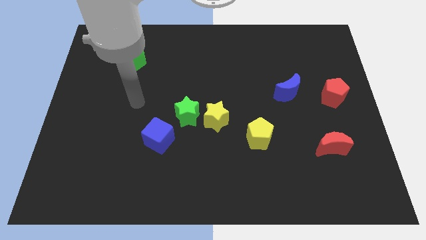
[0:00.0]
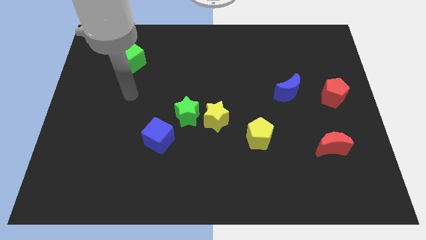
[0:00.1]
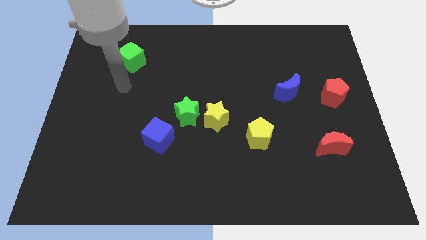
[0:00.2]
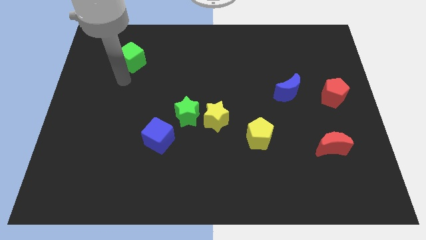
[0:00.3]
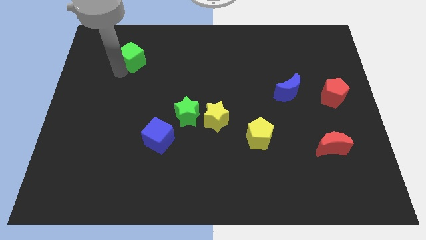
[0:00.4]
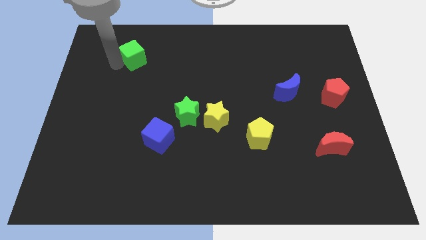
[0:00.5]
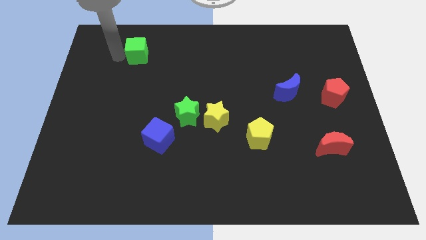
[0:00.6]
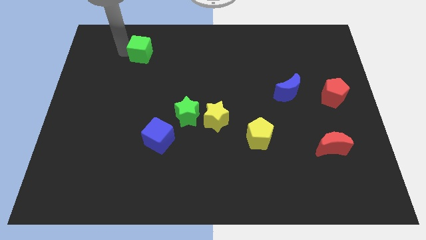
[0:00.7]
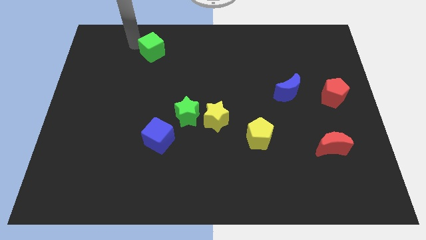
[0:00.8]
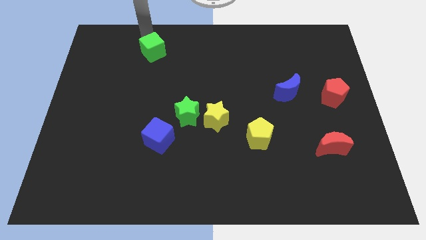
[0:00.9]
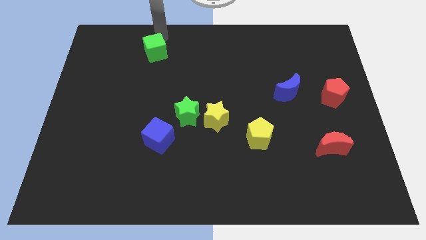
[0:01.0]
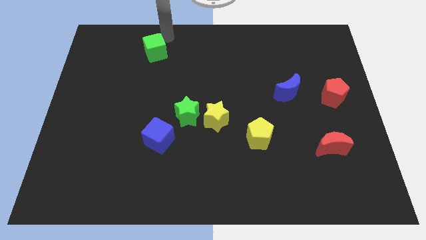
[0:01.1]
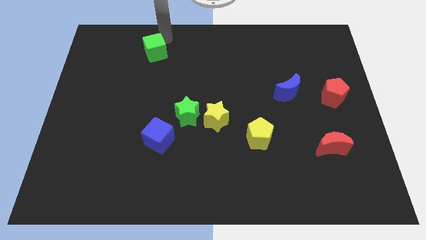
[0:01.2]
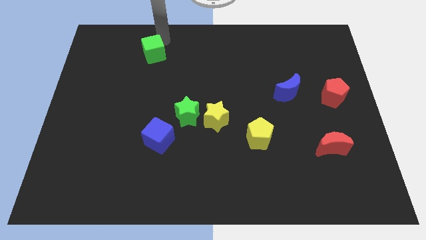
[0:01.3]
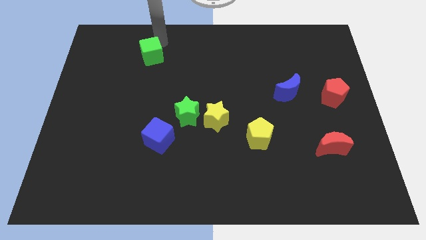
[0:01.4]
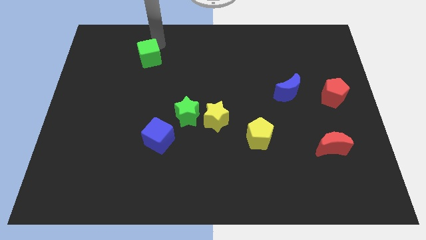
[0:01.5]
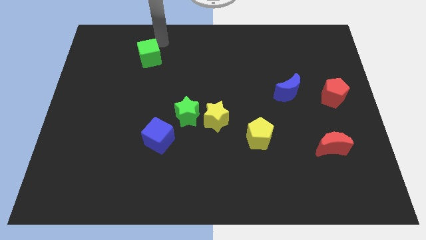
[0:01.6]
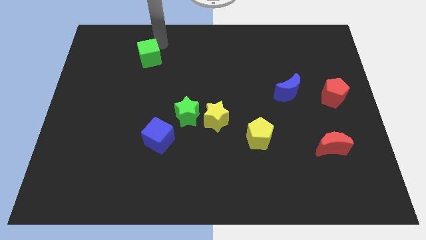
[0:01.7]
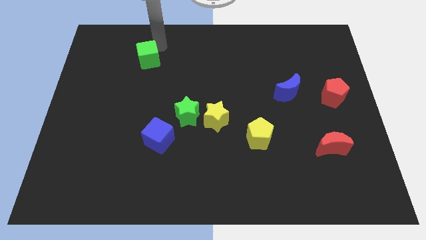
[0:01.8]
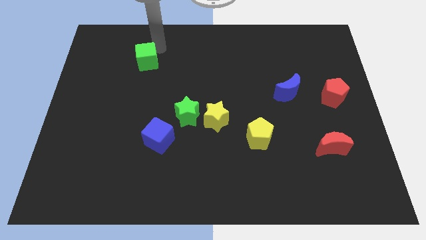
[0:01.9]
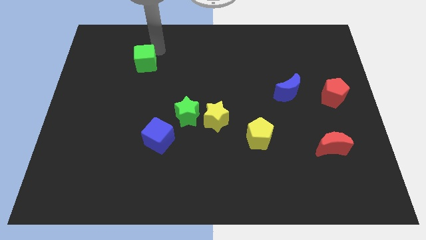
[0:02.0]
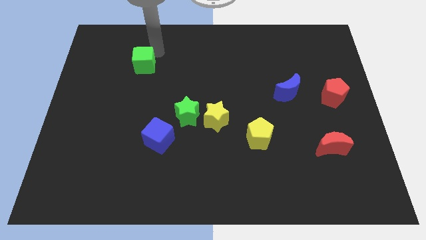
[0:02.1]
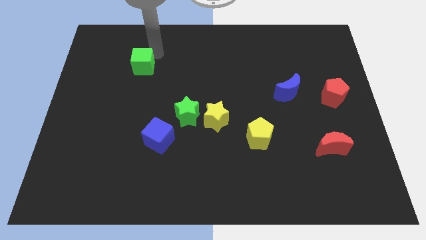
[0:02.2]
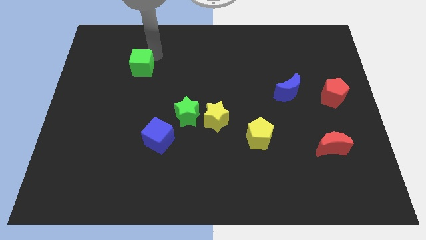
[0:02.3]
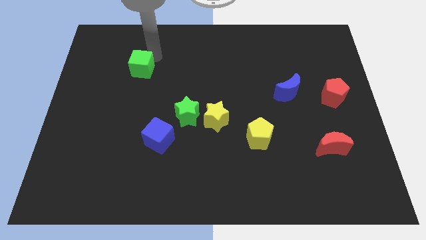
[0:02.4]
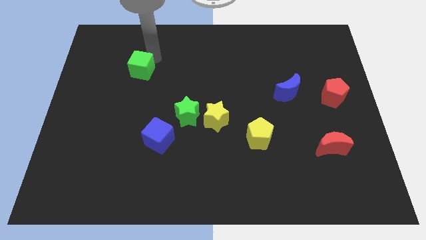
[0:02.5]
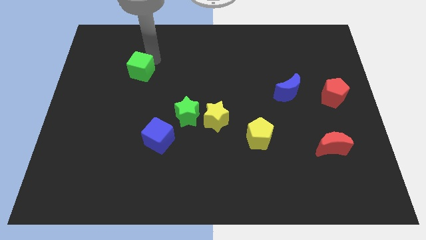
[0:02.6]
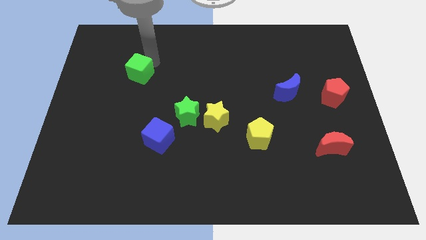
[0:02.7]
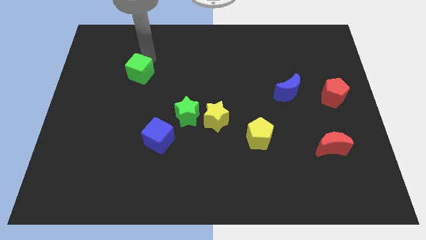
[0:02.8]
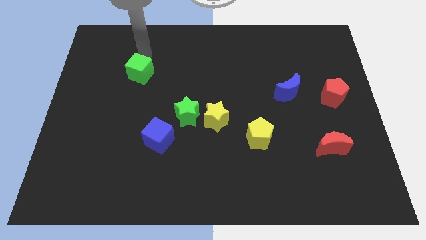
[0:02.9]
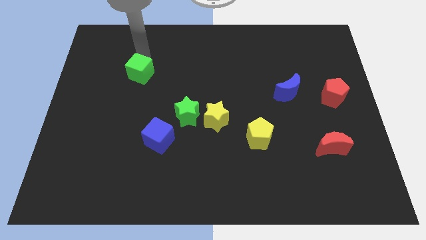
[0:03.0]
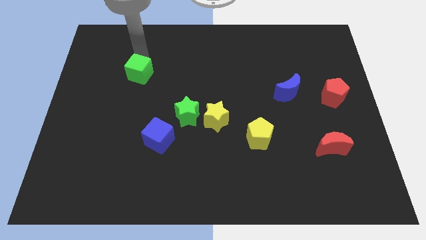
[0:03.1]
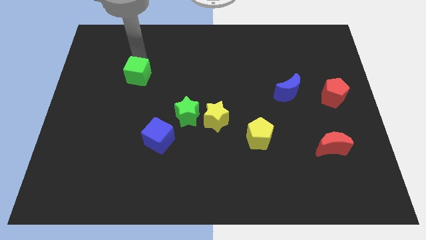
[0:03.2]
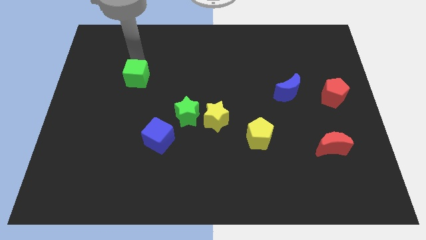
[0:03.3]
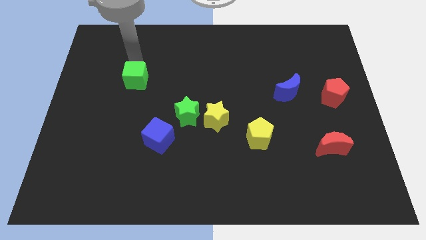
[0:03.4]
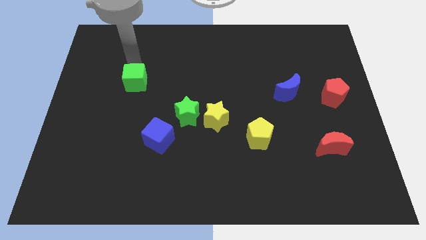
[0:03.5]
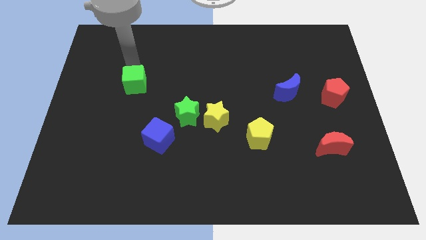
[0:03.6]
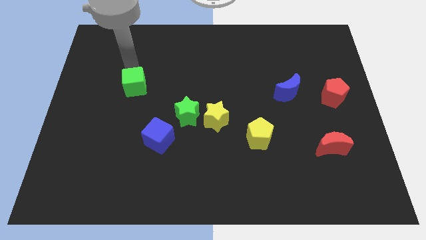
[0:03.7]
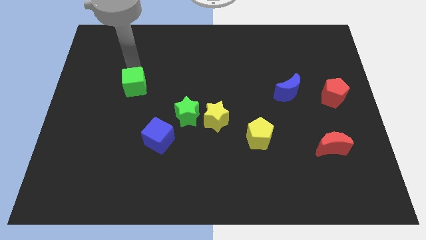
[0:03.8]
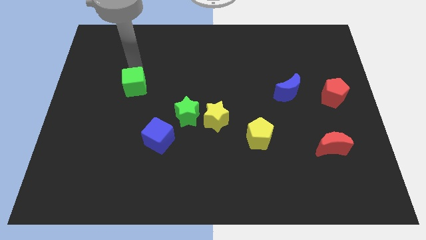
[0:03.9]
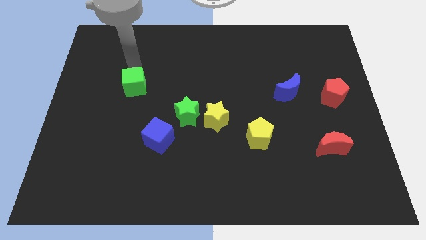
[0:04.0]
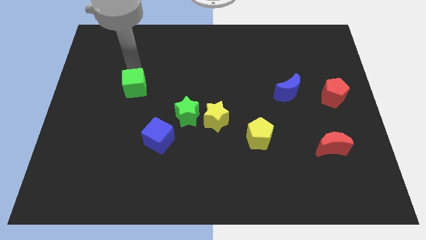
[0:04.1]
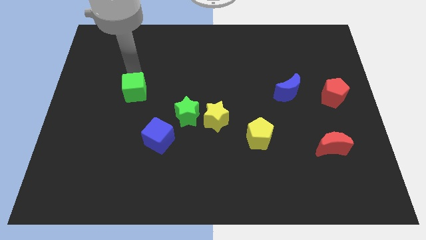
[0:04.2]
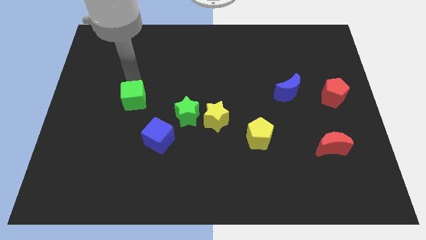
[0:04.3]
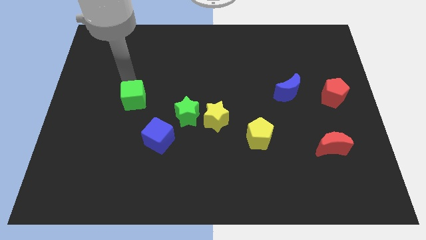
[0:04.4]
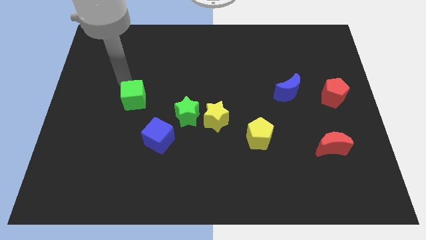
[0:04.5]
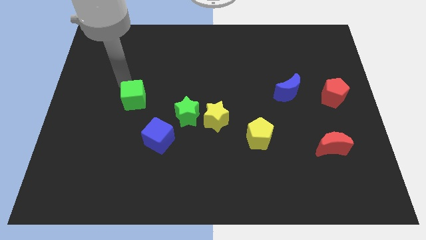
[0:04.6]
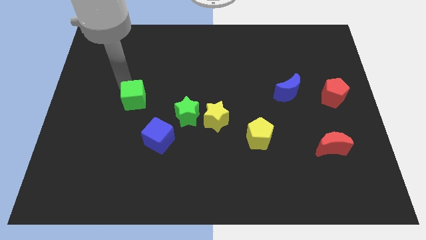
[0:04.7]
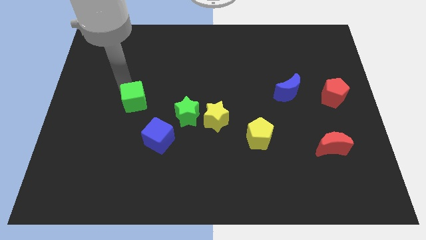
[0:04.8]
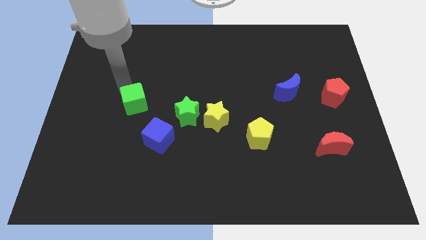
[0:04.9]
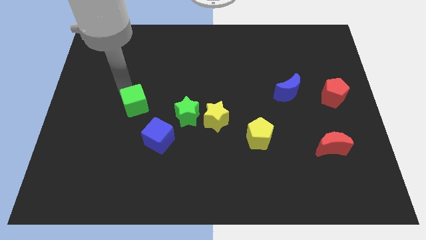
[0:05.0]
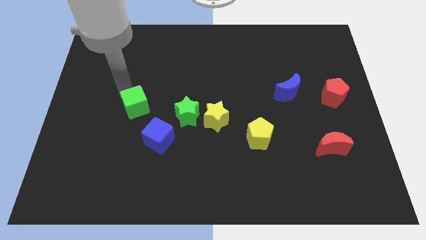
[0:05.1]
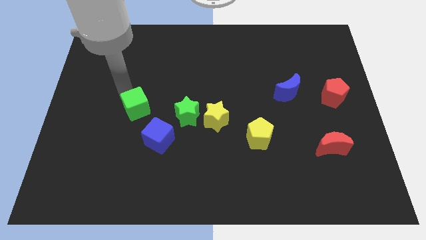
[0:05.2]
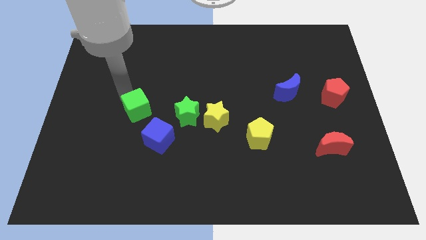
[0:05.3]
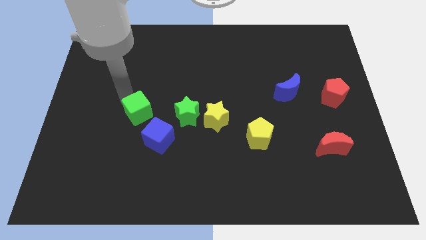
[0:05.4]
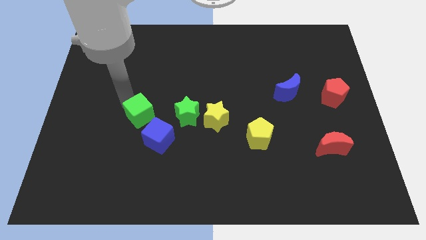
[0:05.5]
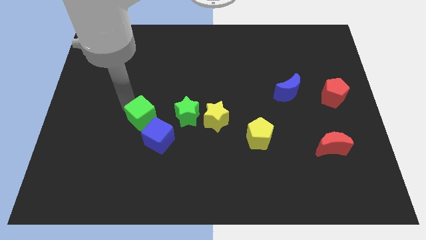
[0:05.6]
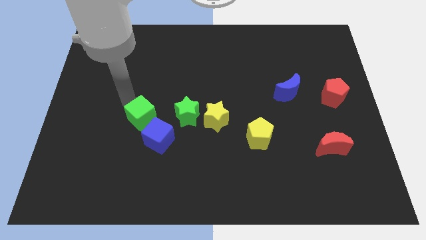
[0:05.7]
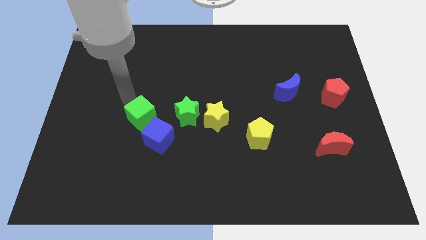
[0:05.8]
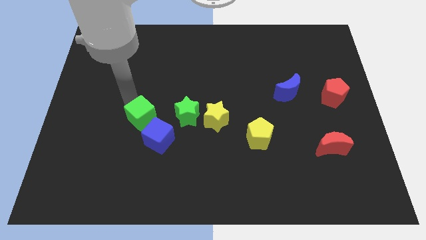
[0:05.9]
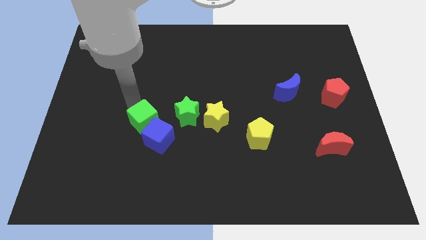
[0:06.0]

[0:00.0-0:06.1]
move the green cube next to the blue cube
